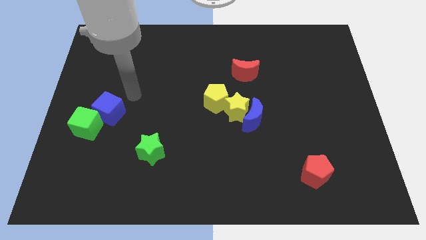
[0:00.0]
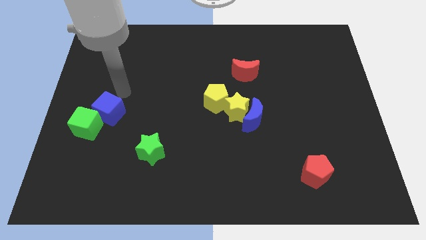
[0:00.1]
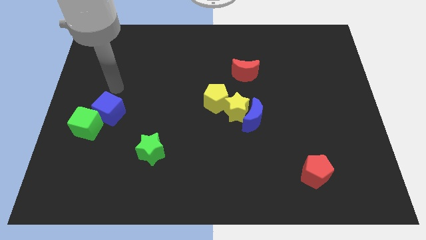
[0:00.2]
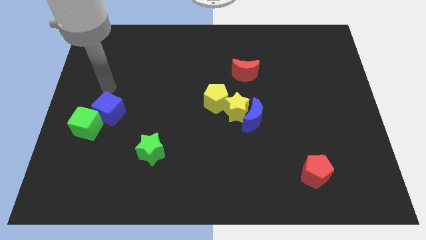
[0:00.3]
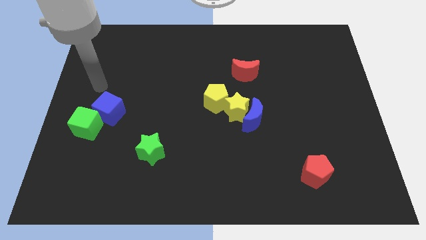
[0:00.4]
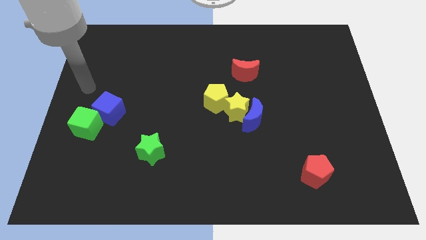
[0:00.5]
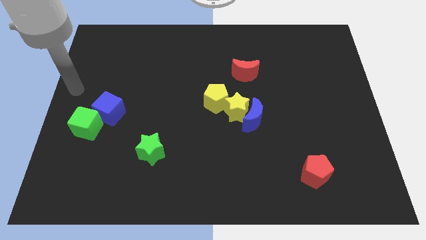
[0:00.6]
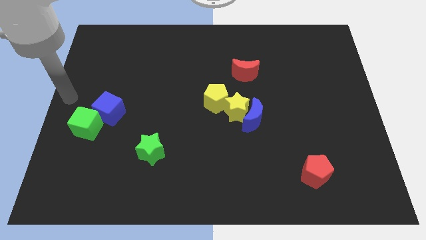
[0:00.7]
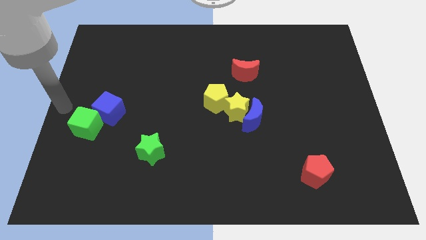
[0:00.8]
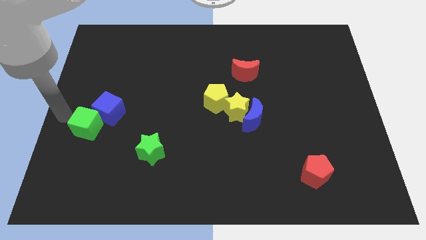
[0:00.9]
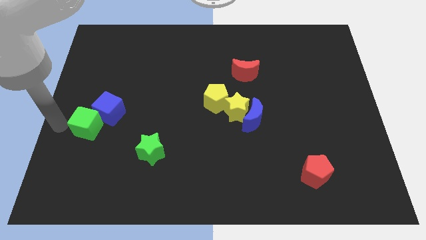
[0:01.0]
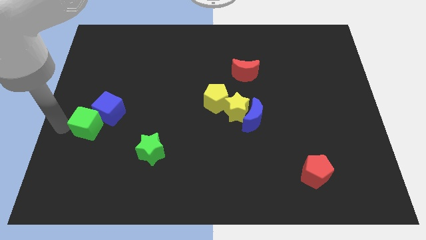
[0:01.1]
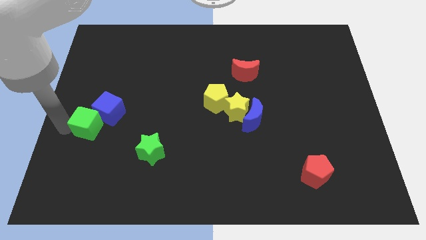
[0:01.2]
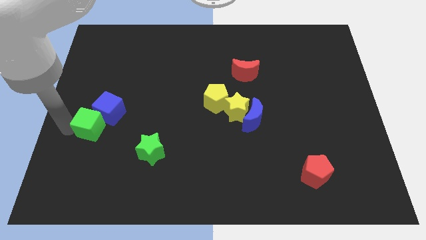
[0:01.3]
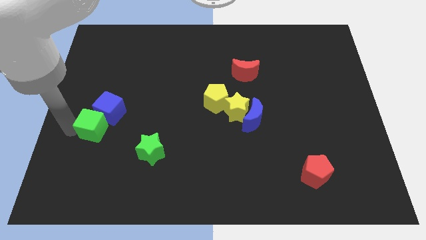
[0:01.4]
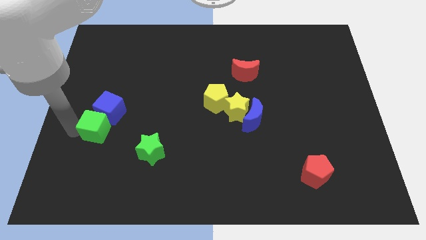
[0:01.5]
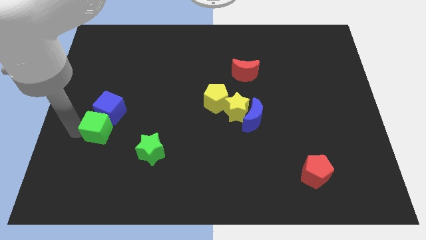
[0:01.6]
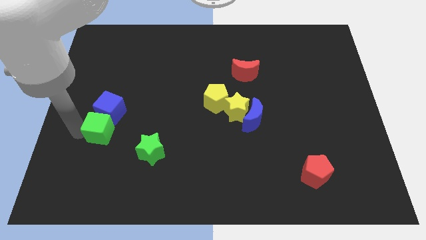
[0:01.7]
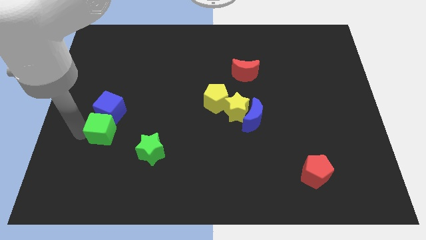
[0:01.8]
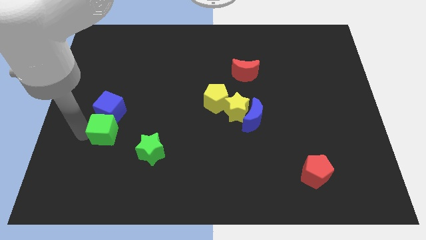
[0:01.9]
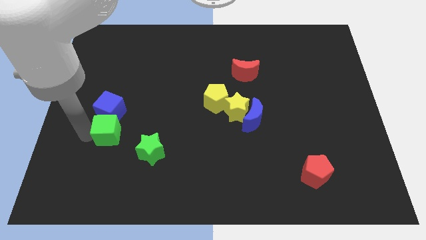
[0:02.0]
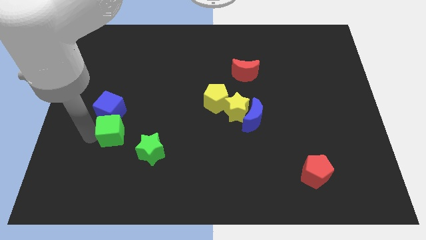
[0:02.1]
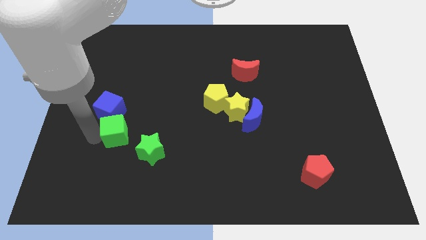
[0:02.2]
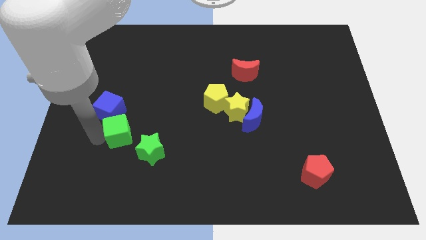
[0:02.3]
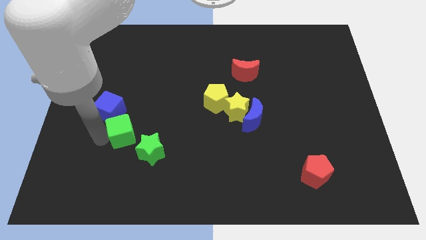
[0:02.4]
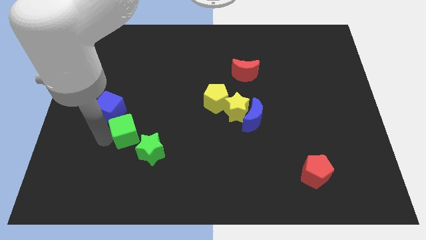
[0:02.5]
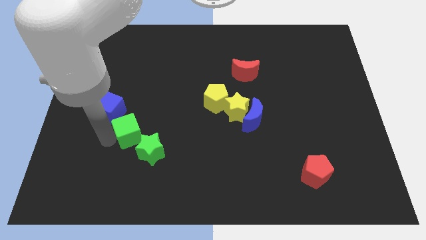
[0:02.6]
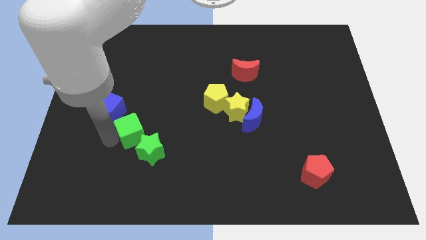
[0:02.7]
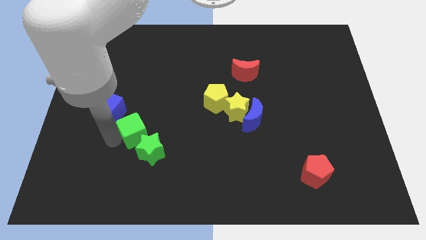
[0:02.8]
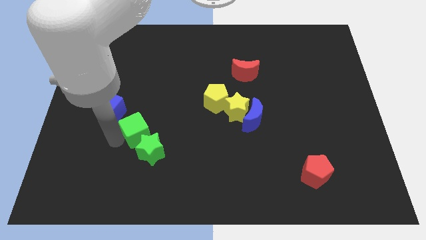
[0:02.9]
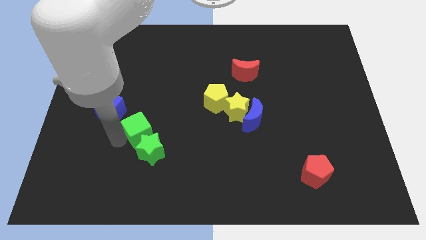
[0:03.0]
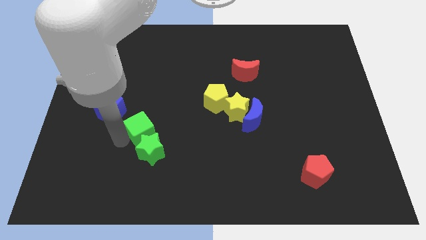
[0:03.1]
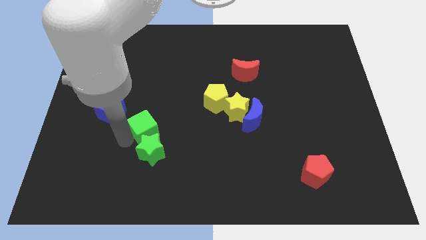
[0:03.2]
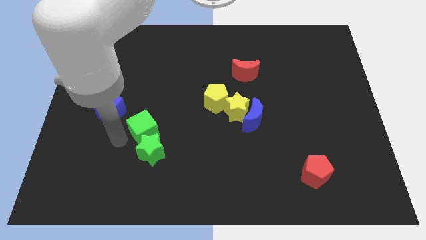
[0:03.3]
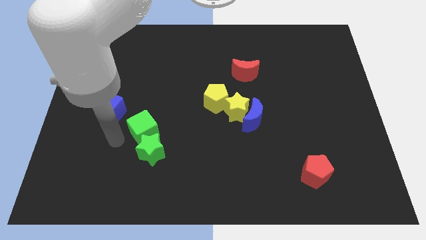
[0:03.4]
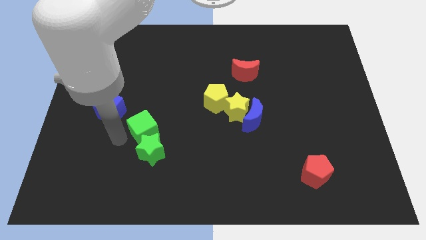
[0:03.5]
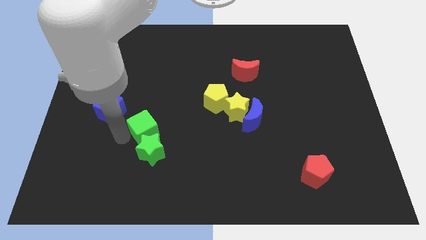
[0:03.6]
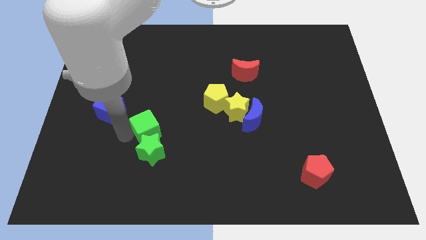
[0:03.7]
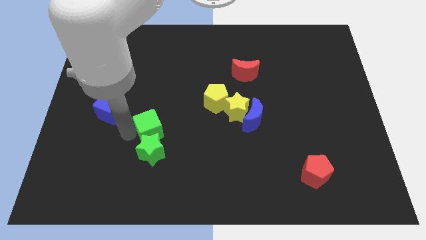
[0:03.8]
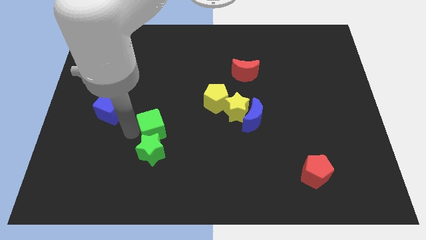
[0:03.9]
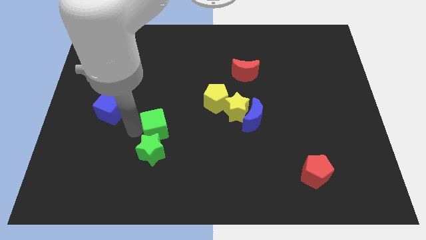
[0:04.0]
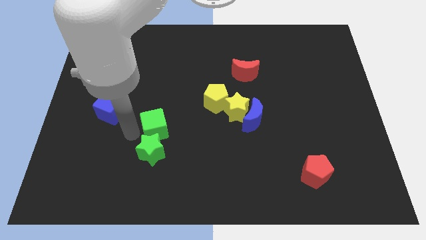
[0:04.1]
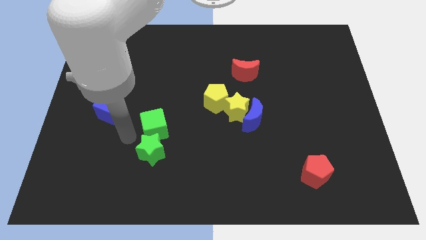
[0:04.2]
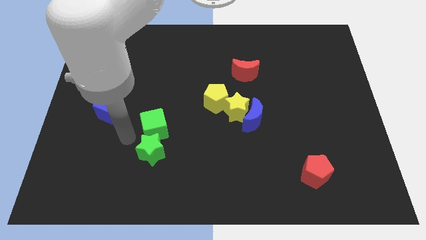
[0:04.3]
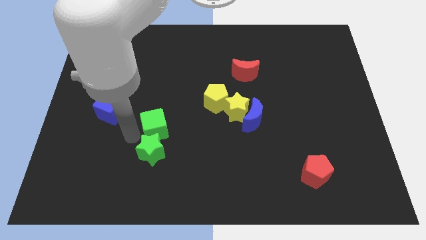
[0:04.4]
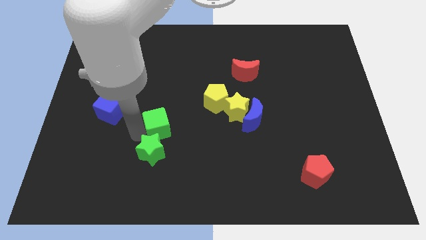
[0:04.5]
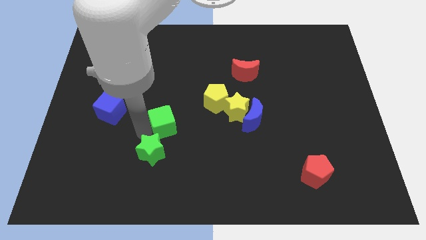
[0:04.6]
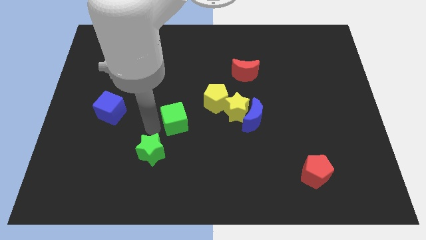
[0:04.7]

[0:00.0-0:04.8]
push the green cube right

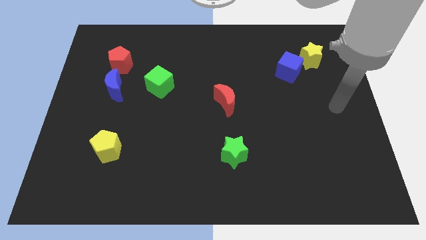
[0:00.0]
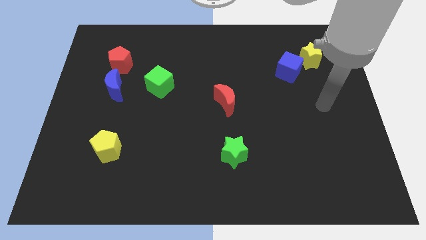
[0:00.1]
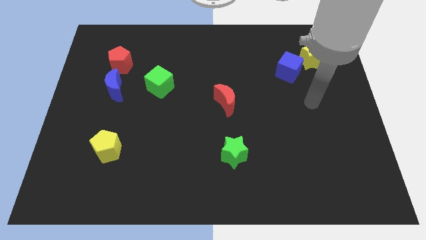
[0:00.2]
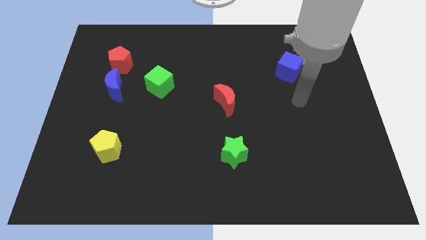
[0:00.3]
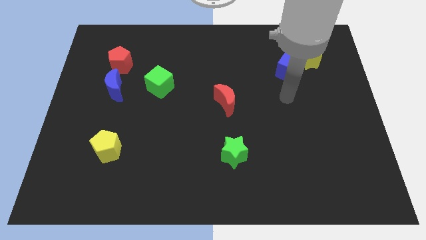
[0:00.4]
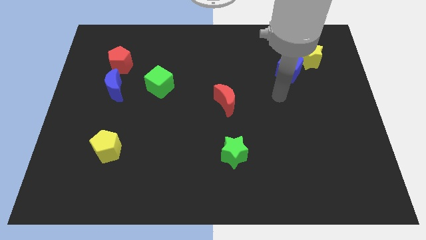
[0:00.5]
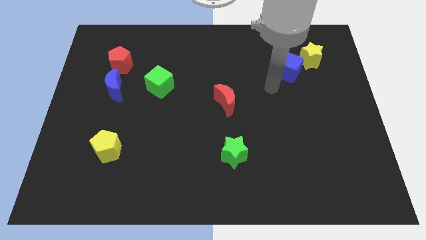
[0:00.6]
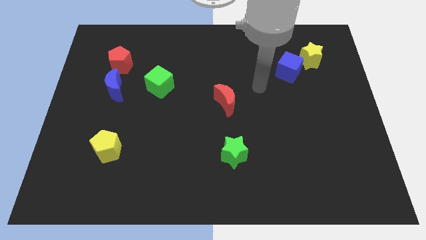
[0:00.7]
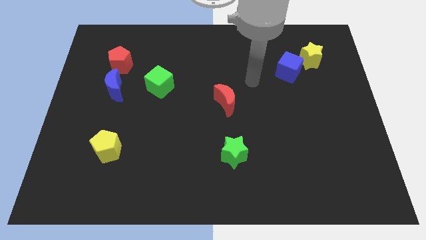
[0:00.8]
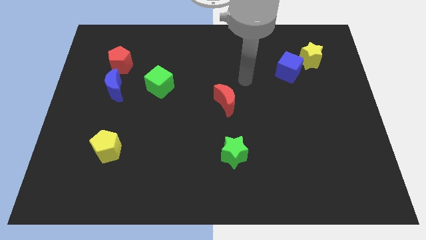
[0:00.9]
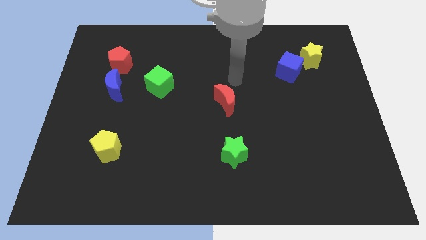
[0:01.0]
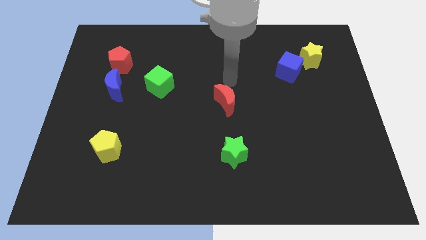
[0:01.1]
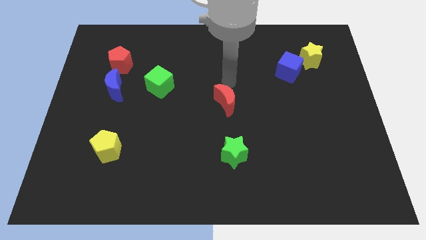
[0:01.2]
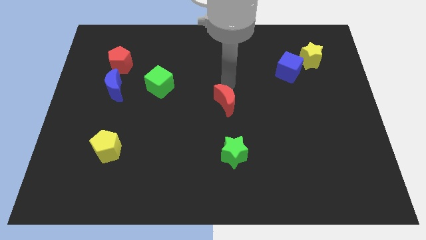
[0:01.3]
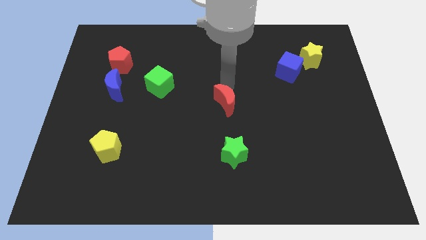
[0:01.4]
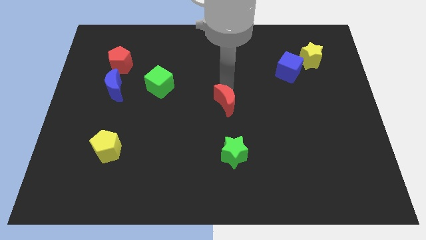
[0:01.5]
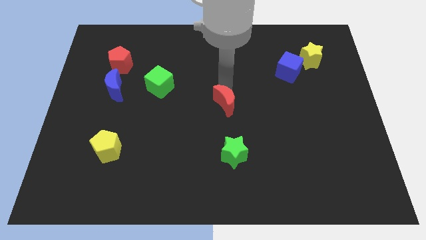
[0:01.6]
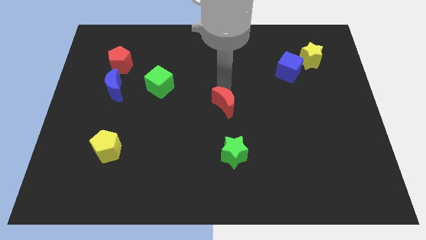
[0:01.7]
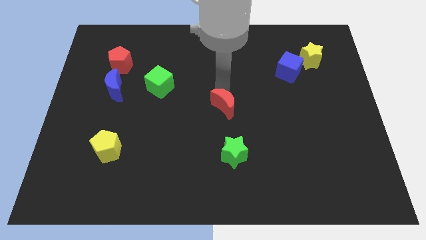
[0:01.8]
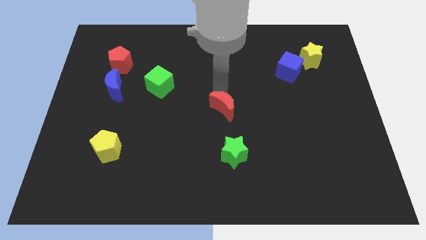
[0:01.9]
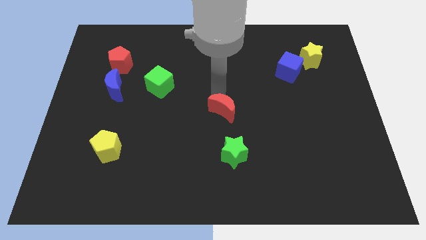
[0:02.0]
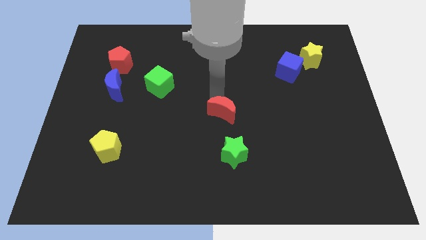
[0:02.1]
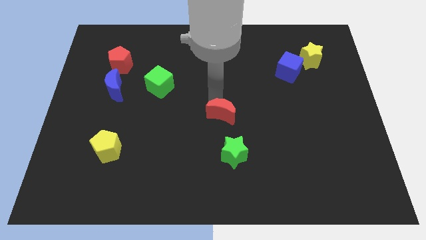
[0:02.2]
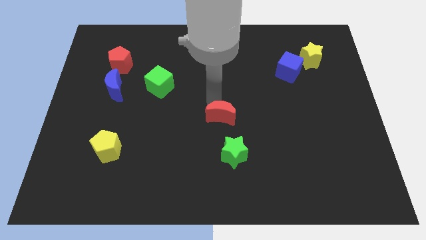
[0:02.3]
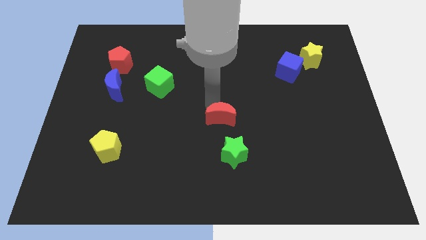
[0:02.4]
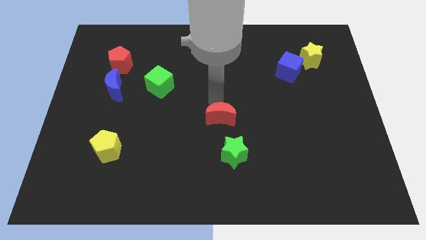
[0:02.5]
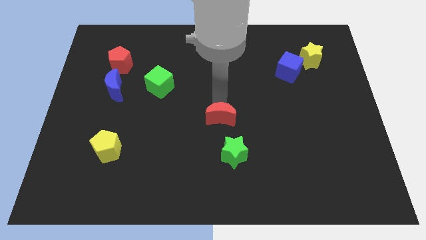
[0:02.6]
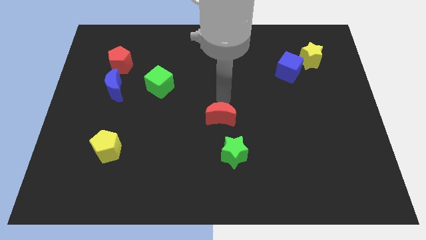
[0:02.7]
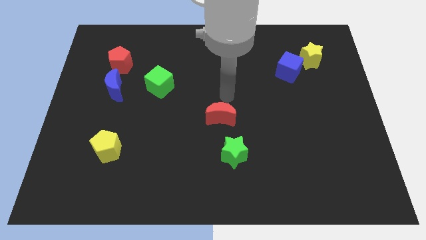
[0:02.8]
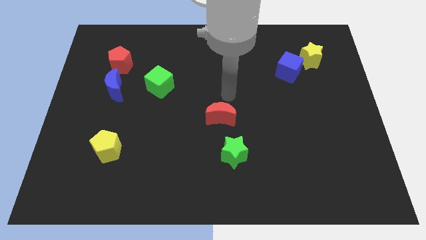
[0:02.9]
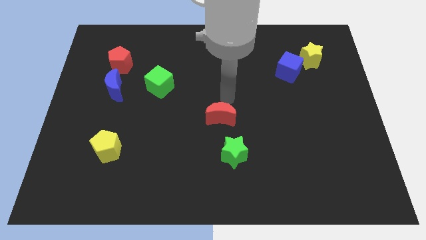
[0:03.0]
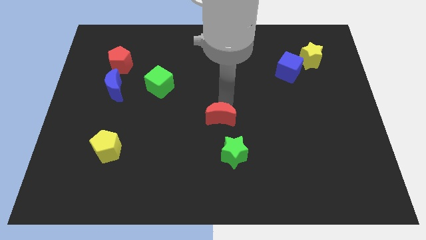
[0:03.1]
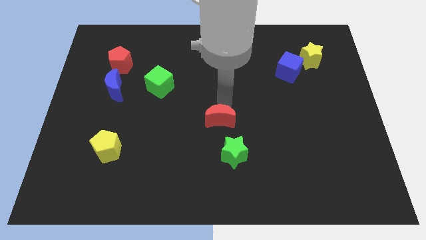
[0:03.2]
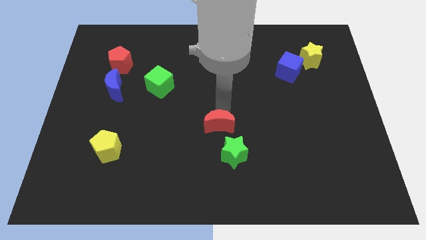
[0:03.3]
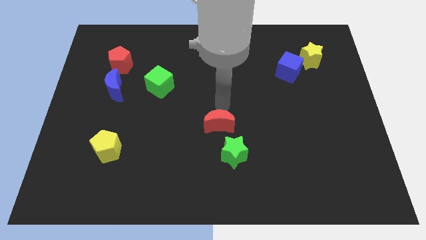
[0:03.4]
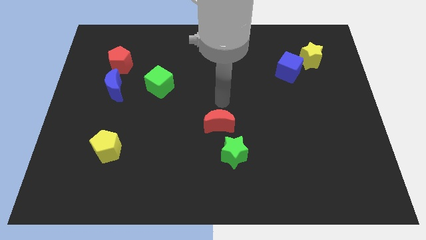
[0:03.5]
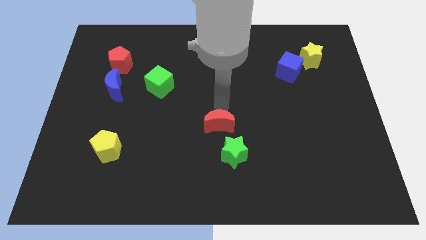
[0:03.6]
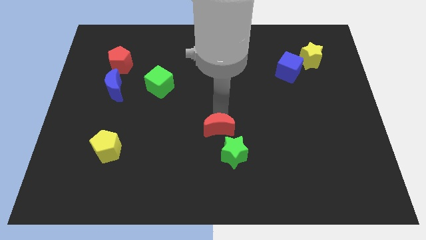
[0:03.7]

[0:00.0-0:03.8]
push the red moon downwards a little
